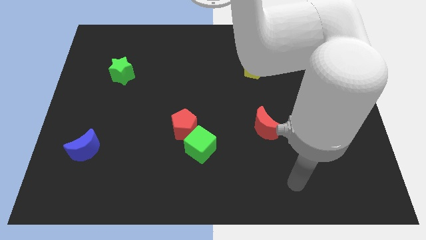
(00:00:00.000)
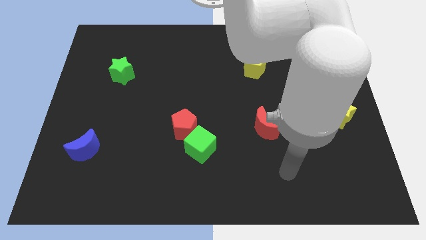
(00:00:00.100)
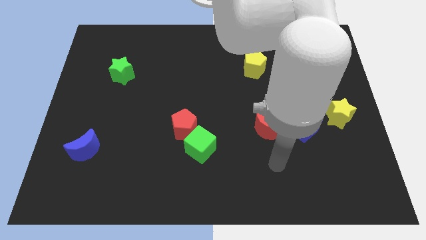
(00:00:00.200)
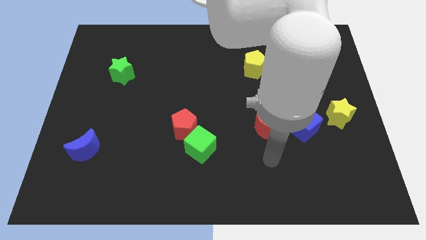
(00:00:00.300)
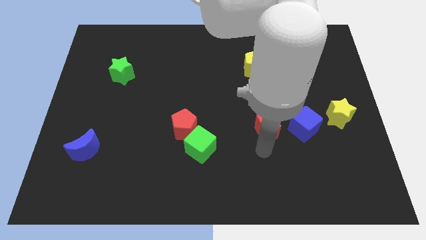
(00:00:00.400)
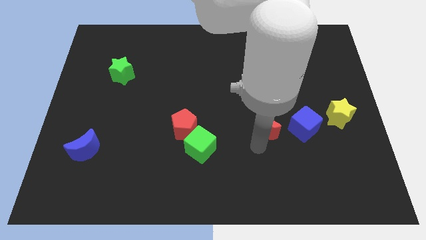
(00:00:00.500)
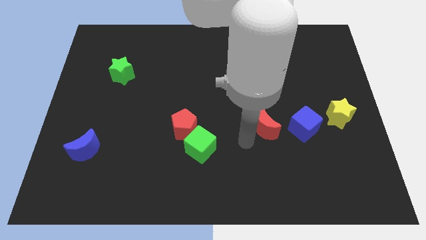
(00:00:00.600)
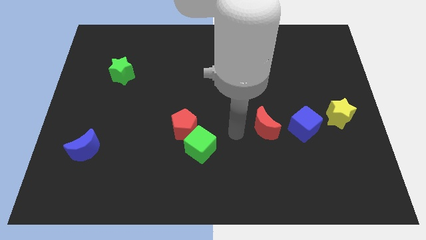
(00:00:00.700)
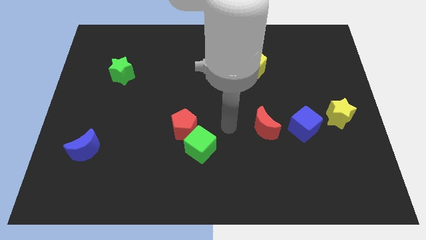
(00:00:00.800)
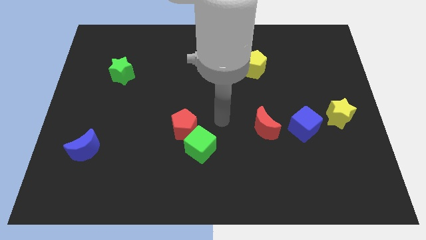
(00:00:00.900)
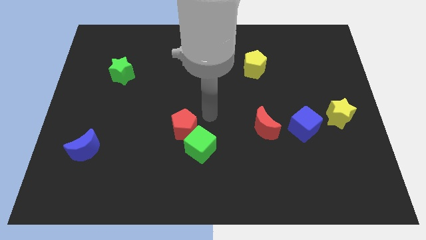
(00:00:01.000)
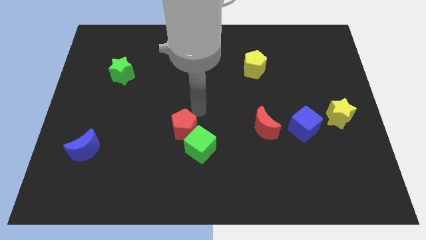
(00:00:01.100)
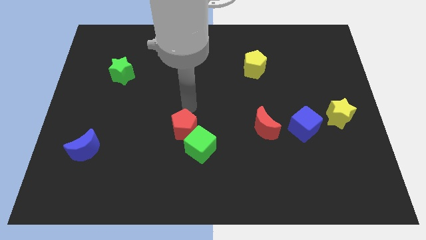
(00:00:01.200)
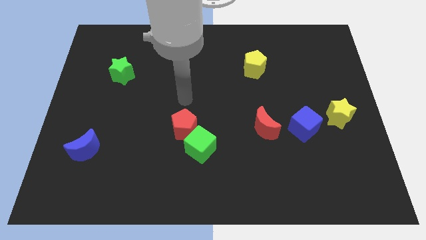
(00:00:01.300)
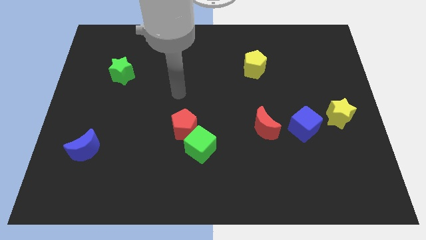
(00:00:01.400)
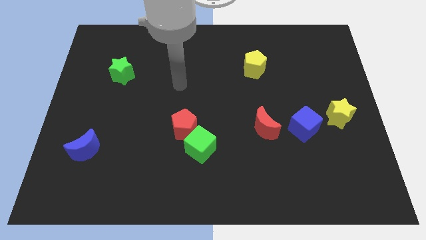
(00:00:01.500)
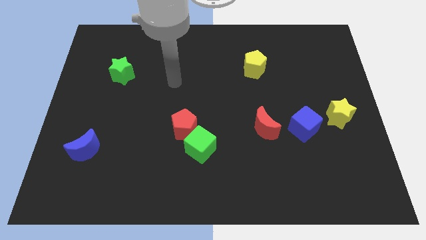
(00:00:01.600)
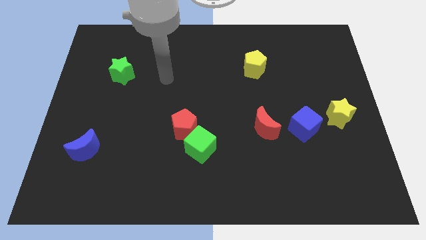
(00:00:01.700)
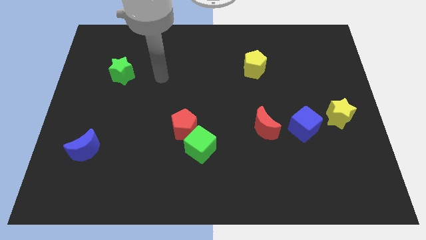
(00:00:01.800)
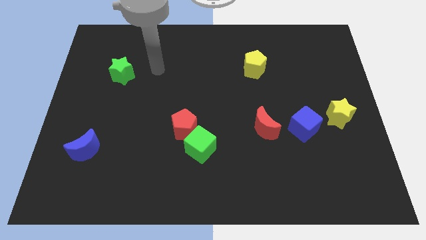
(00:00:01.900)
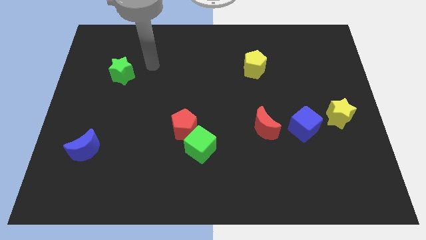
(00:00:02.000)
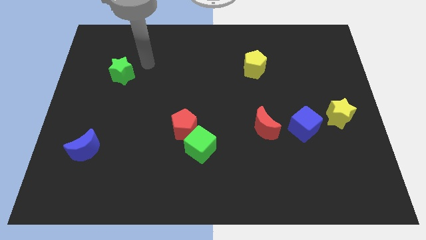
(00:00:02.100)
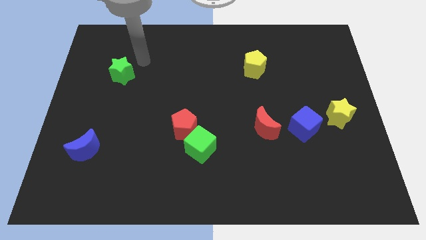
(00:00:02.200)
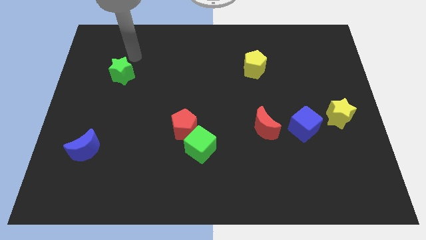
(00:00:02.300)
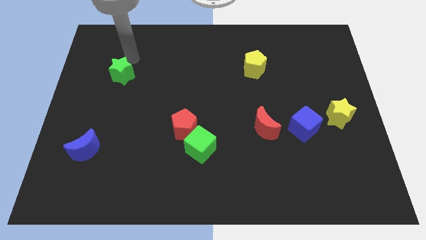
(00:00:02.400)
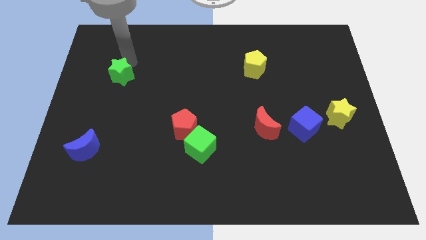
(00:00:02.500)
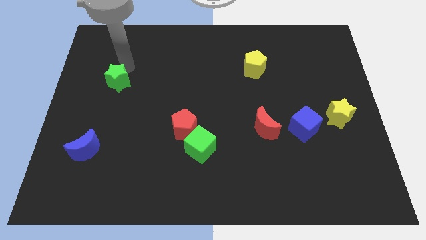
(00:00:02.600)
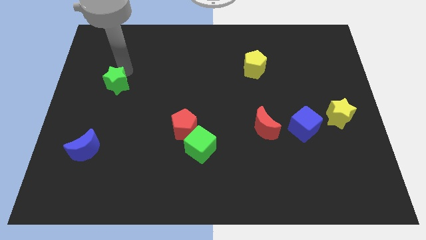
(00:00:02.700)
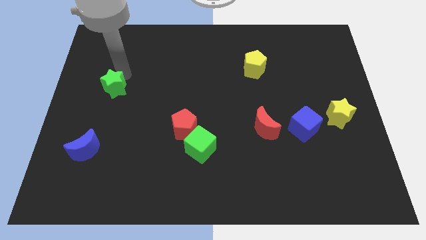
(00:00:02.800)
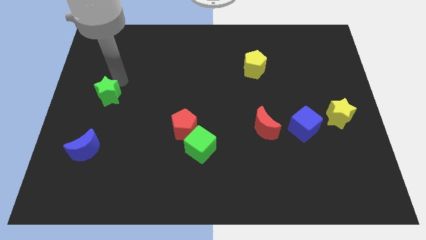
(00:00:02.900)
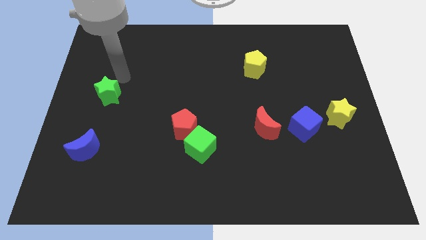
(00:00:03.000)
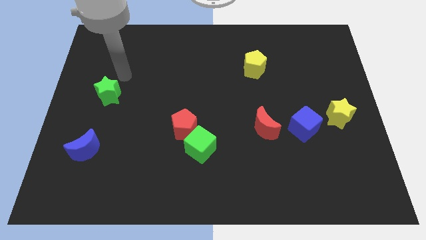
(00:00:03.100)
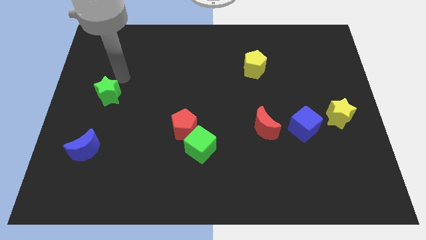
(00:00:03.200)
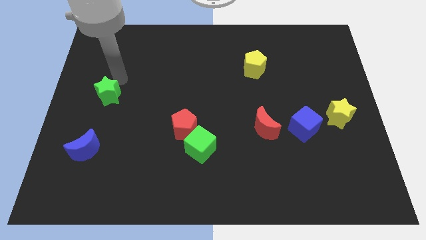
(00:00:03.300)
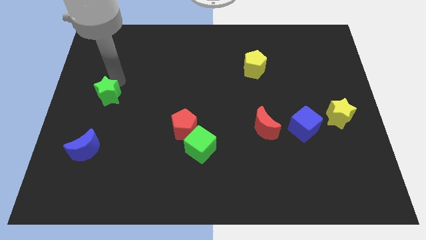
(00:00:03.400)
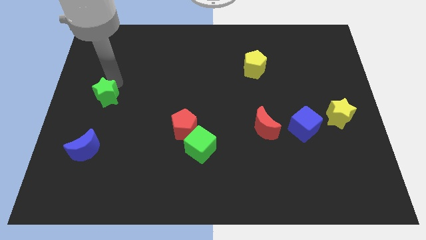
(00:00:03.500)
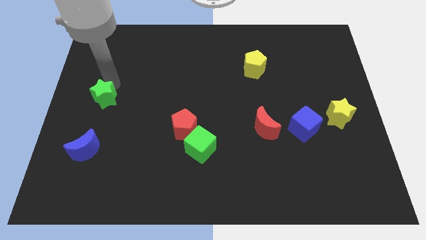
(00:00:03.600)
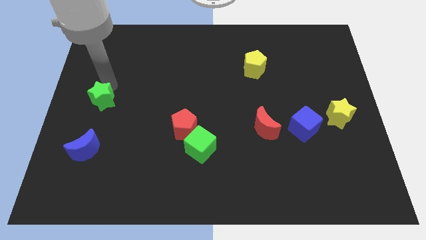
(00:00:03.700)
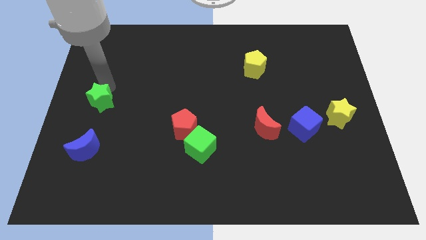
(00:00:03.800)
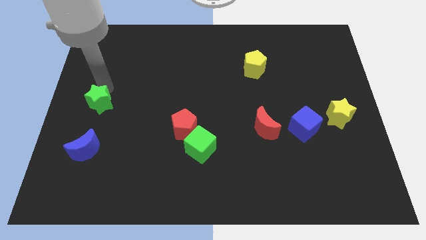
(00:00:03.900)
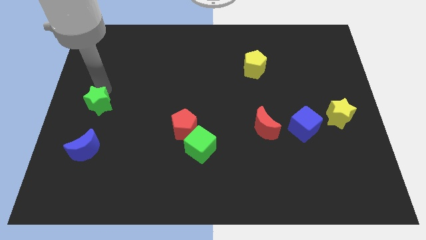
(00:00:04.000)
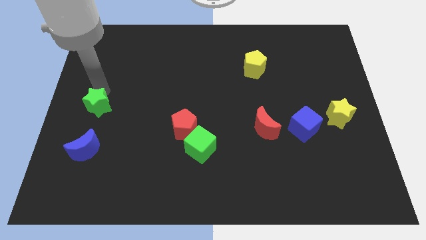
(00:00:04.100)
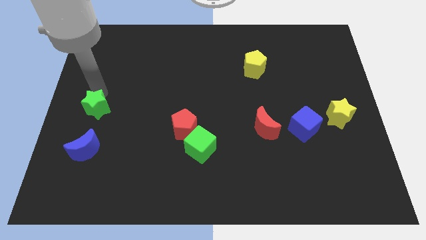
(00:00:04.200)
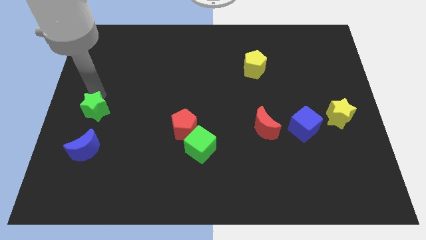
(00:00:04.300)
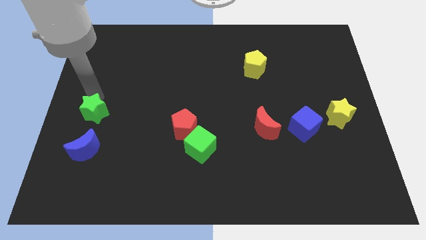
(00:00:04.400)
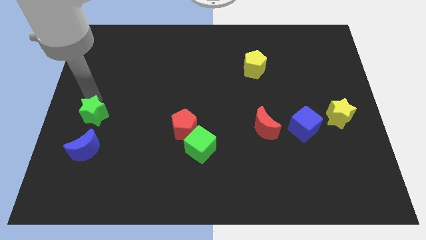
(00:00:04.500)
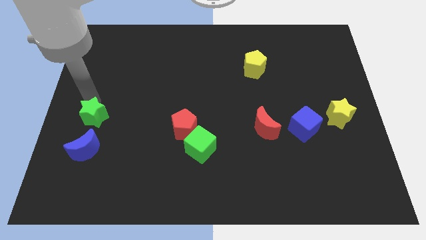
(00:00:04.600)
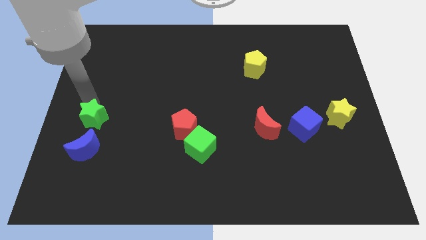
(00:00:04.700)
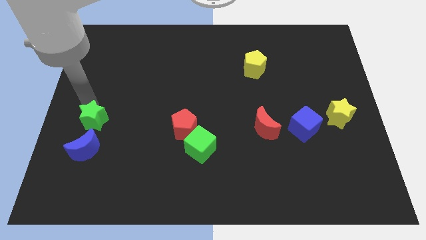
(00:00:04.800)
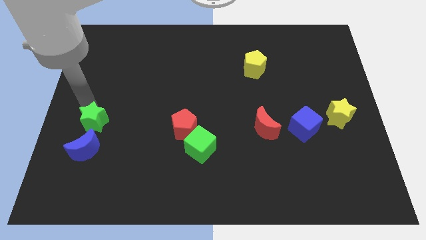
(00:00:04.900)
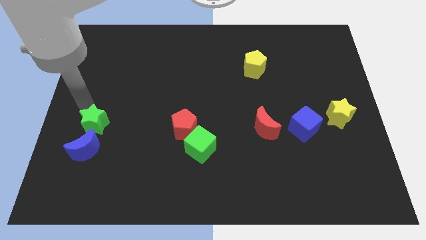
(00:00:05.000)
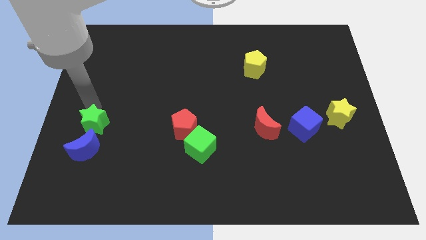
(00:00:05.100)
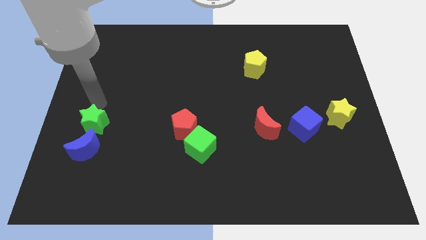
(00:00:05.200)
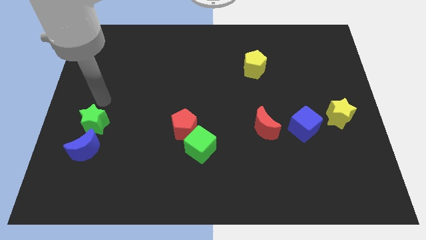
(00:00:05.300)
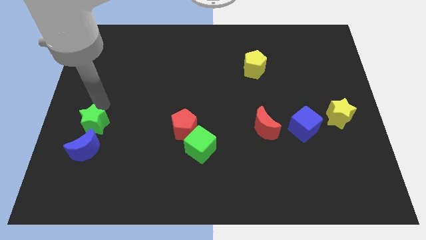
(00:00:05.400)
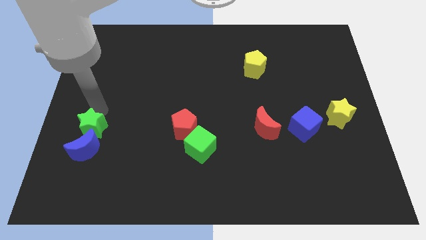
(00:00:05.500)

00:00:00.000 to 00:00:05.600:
move the green star next to the blue moon

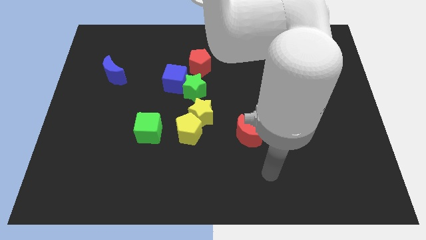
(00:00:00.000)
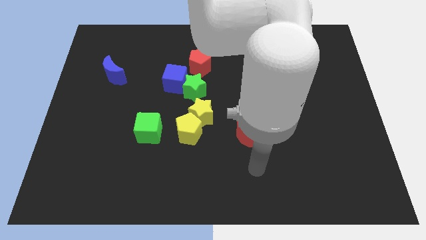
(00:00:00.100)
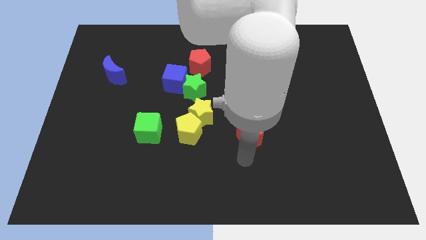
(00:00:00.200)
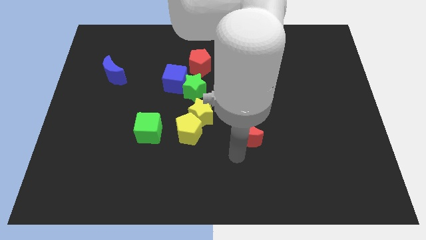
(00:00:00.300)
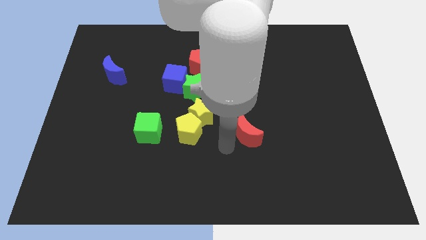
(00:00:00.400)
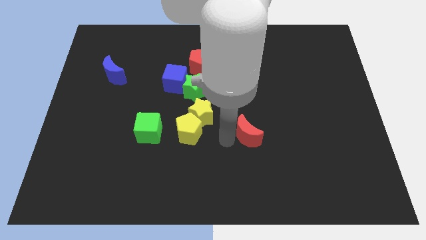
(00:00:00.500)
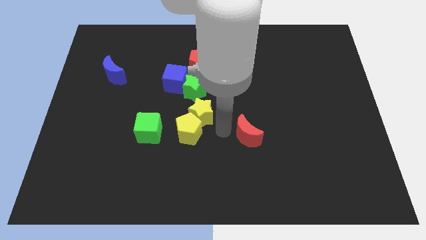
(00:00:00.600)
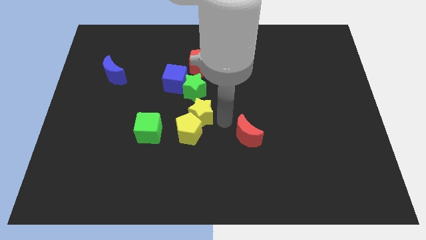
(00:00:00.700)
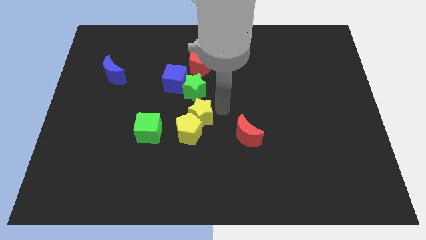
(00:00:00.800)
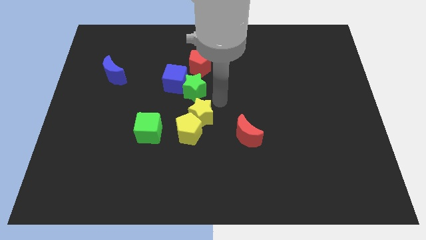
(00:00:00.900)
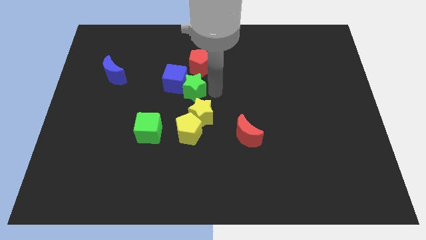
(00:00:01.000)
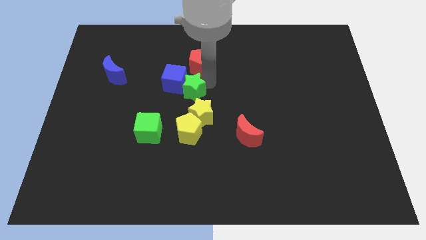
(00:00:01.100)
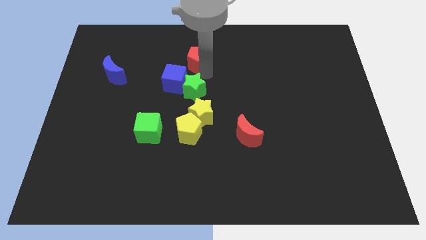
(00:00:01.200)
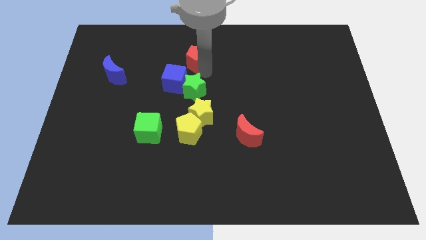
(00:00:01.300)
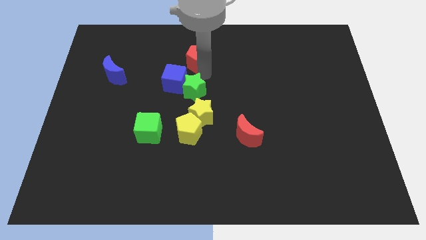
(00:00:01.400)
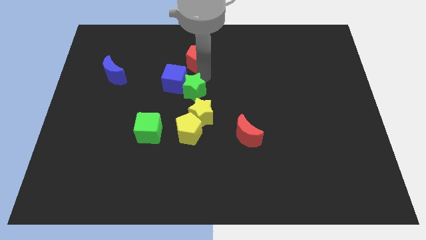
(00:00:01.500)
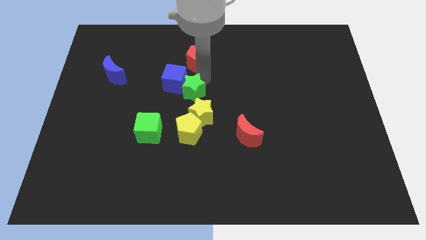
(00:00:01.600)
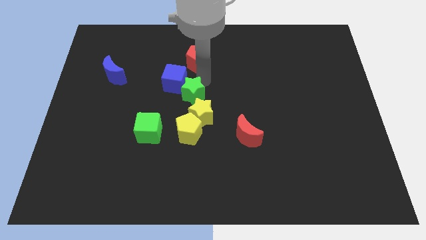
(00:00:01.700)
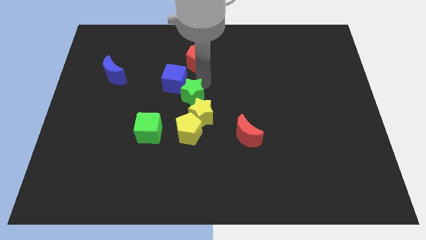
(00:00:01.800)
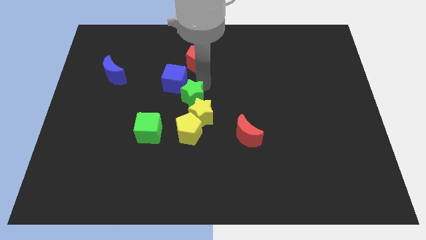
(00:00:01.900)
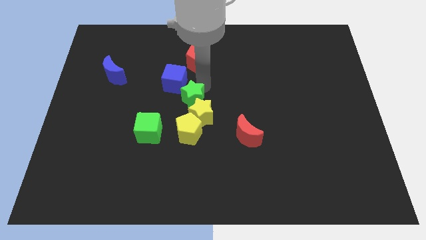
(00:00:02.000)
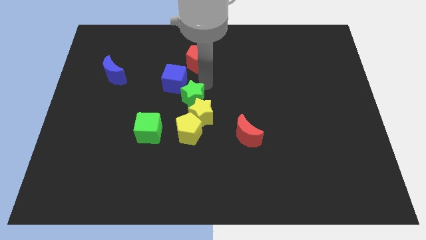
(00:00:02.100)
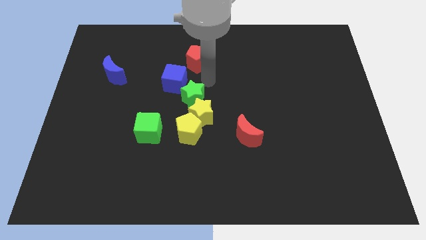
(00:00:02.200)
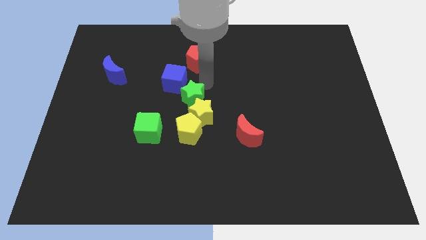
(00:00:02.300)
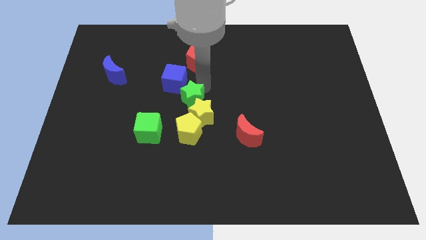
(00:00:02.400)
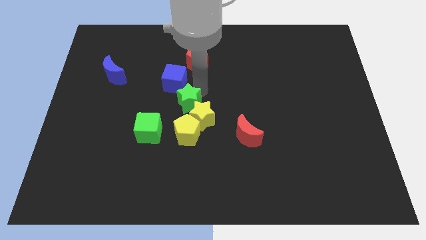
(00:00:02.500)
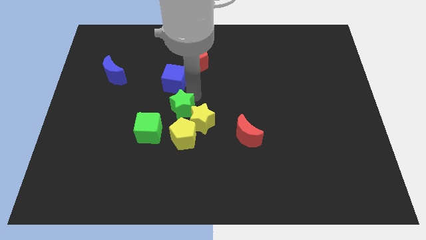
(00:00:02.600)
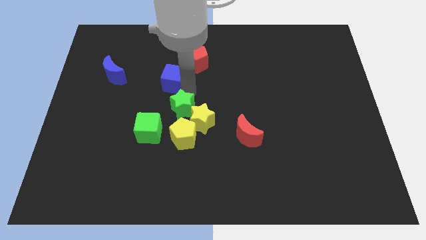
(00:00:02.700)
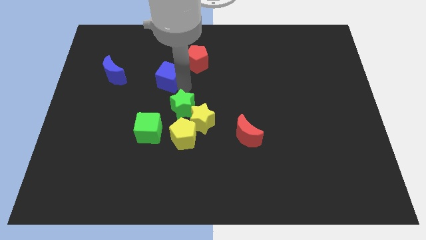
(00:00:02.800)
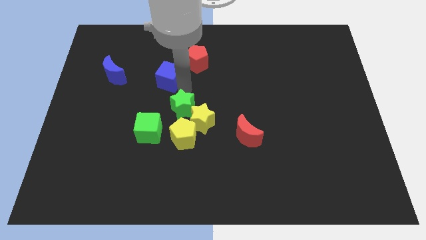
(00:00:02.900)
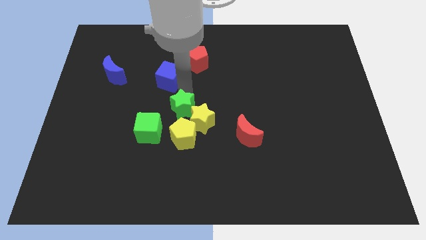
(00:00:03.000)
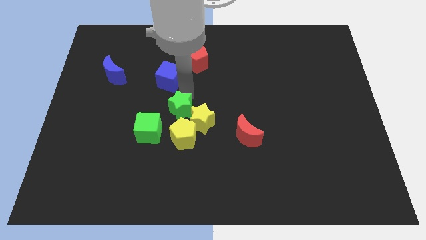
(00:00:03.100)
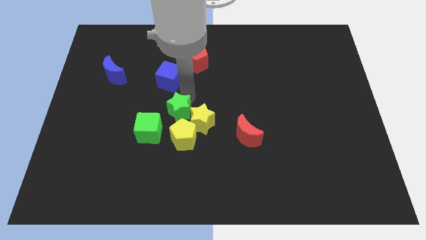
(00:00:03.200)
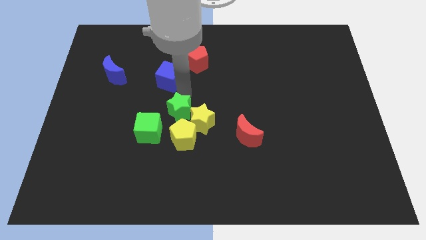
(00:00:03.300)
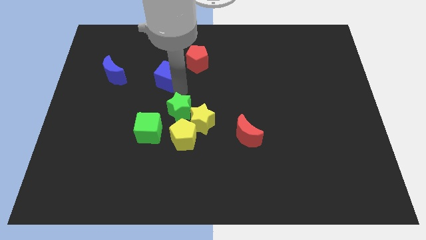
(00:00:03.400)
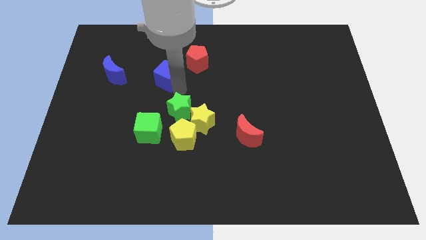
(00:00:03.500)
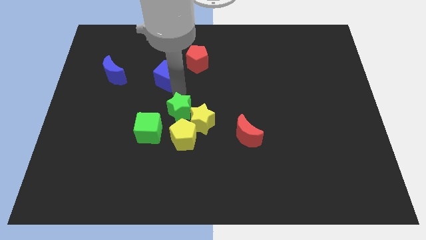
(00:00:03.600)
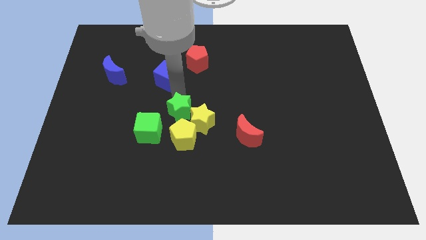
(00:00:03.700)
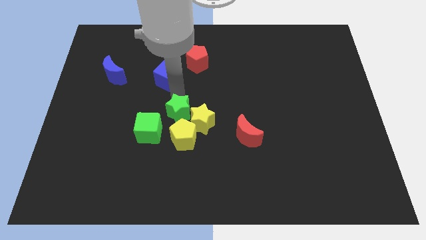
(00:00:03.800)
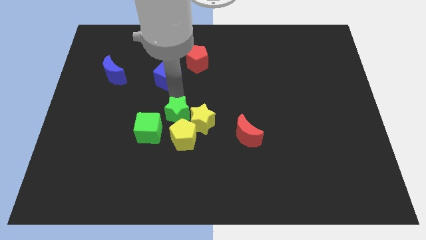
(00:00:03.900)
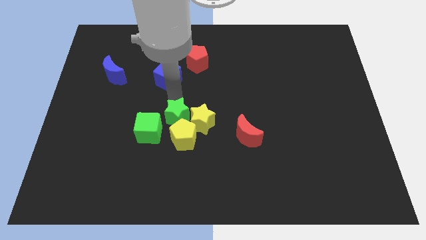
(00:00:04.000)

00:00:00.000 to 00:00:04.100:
put the green star towards the yellow pentagon
